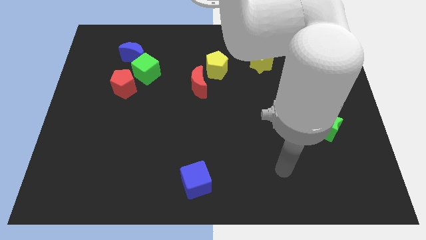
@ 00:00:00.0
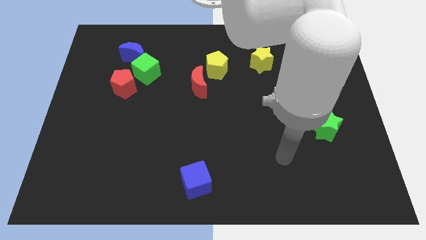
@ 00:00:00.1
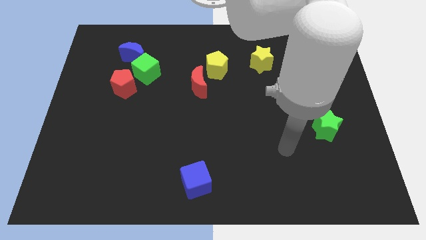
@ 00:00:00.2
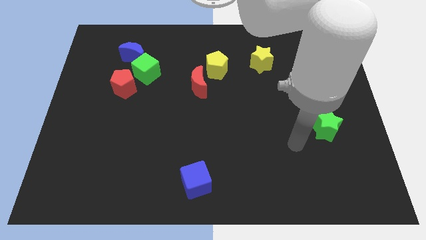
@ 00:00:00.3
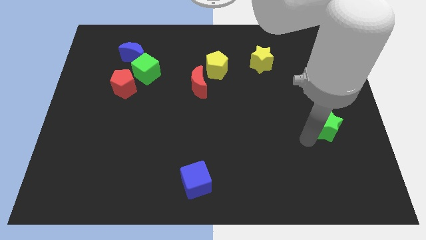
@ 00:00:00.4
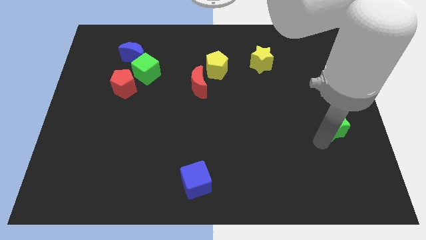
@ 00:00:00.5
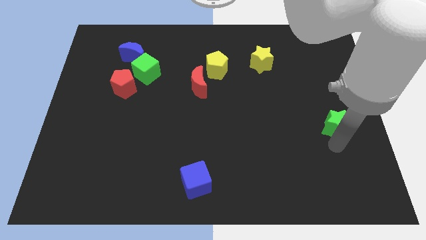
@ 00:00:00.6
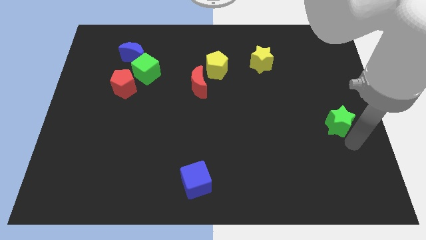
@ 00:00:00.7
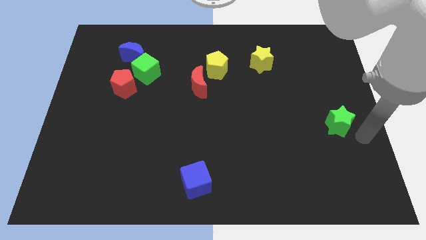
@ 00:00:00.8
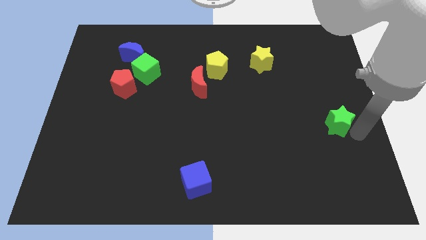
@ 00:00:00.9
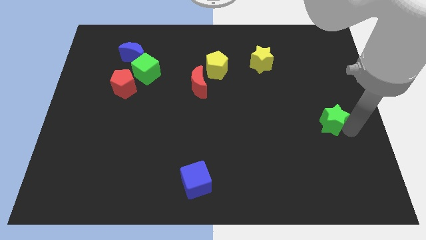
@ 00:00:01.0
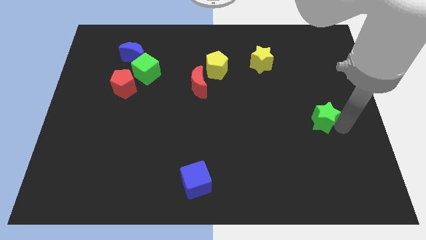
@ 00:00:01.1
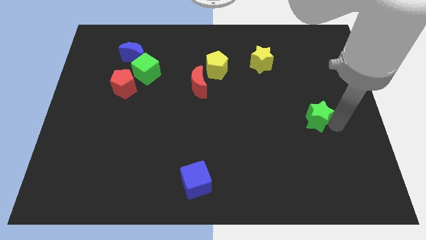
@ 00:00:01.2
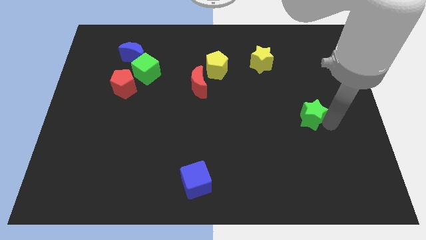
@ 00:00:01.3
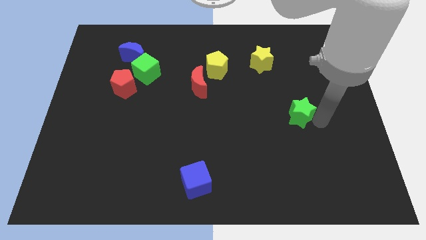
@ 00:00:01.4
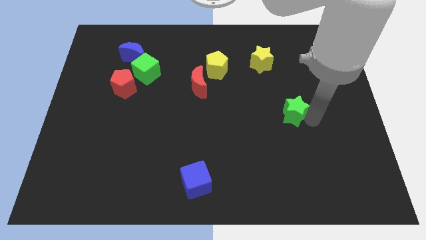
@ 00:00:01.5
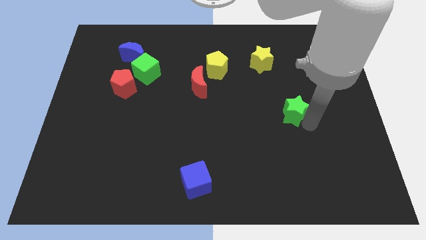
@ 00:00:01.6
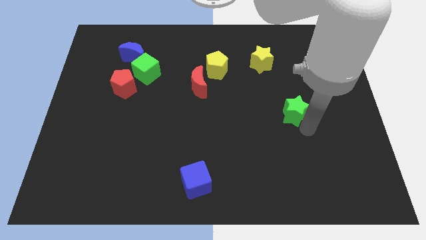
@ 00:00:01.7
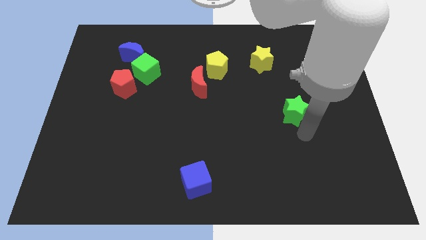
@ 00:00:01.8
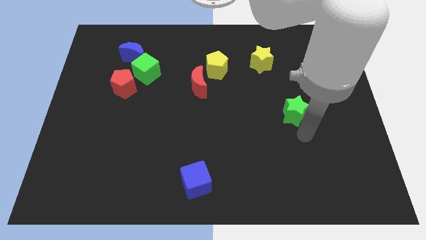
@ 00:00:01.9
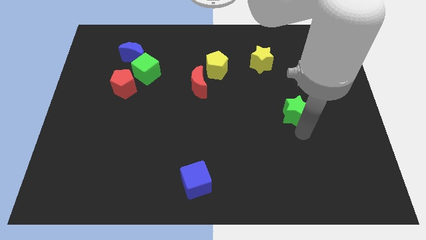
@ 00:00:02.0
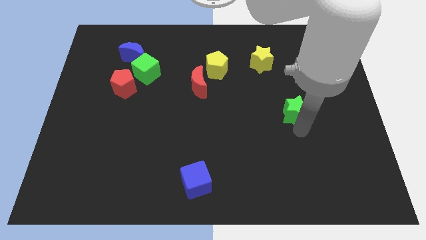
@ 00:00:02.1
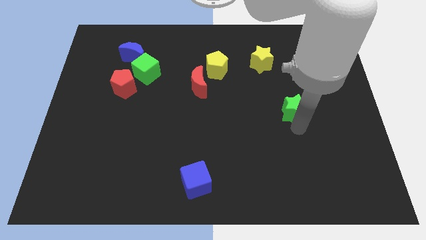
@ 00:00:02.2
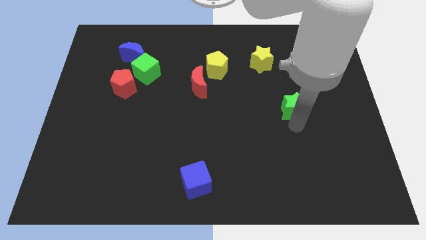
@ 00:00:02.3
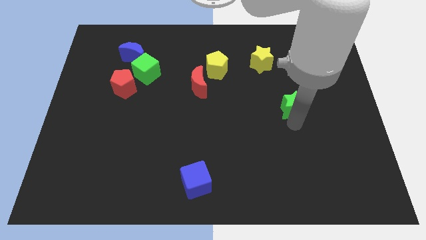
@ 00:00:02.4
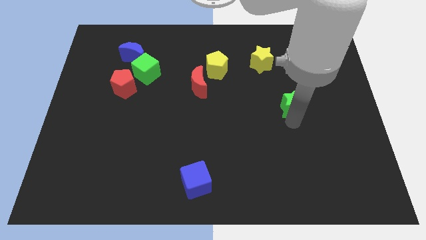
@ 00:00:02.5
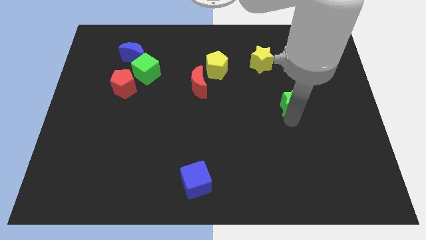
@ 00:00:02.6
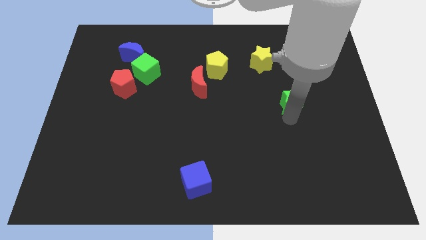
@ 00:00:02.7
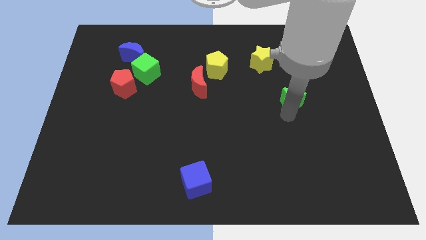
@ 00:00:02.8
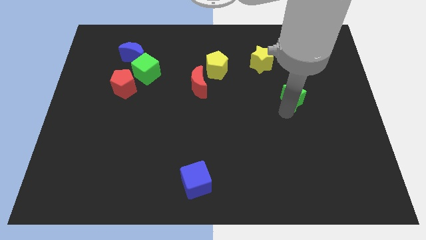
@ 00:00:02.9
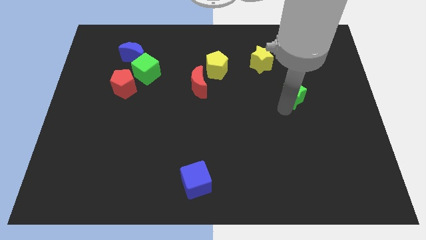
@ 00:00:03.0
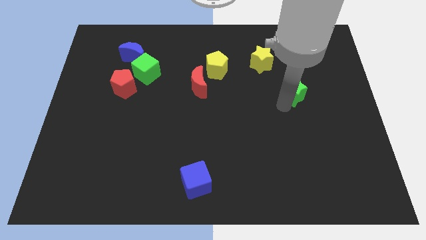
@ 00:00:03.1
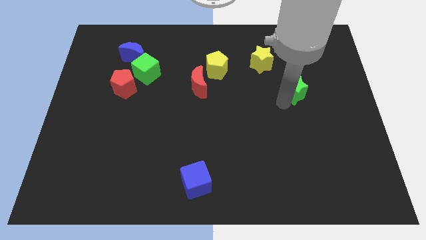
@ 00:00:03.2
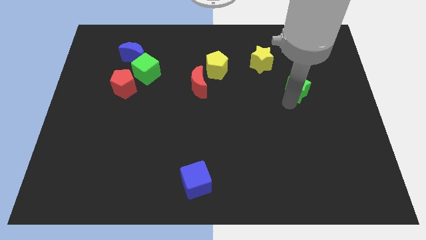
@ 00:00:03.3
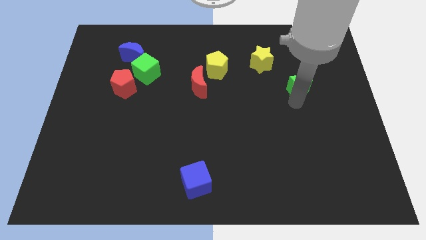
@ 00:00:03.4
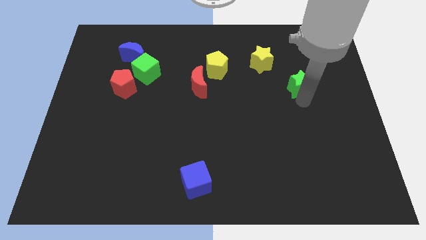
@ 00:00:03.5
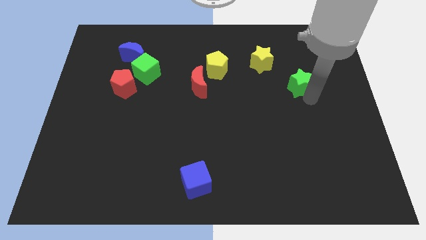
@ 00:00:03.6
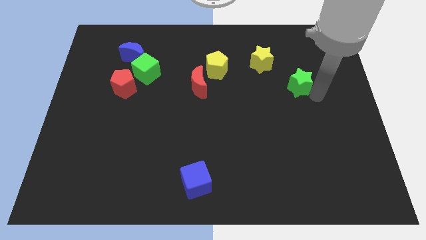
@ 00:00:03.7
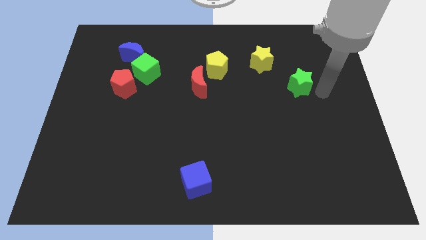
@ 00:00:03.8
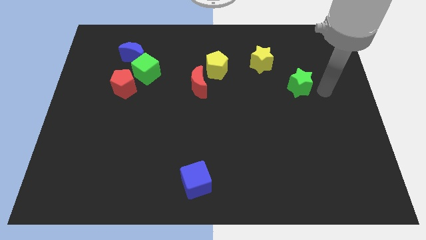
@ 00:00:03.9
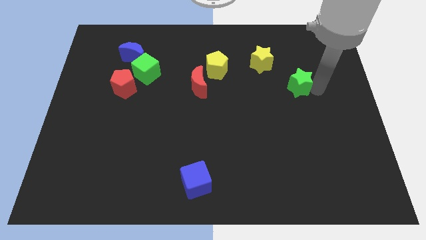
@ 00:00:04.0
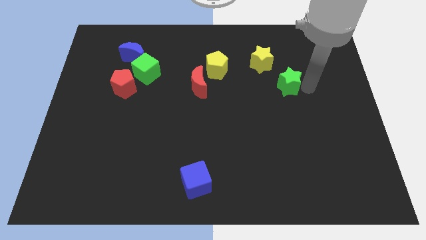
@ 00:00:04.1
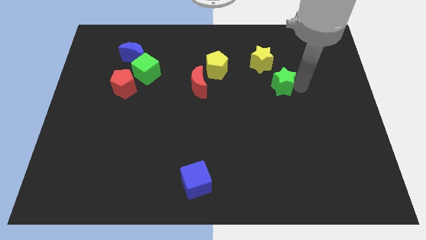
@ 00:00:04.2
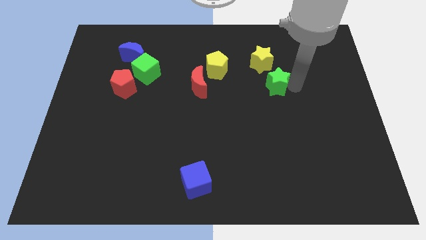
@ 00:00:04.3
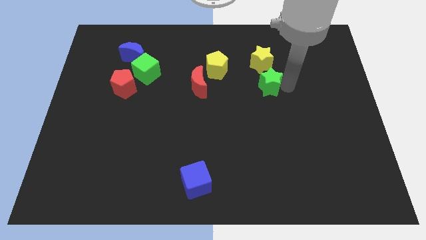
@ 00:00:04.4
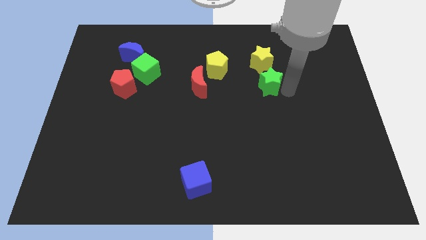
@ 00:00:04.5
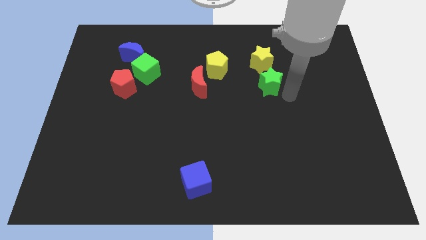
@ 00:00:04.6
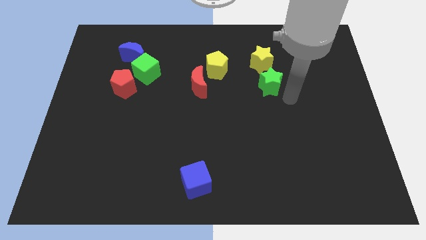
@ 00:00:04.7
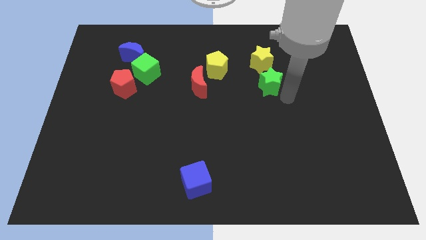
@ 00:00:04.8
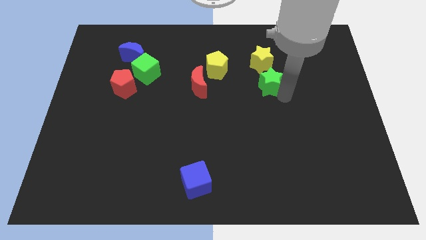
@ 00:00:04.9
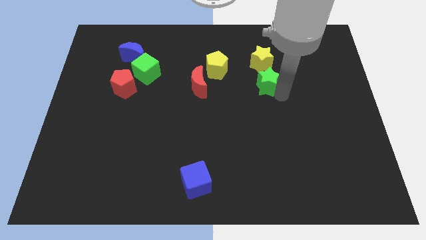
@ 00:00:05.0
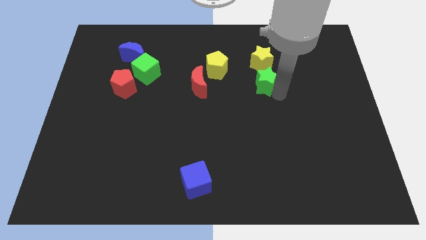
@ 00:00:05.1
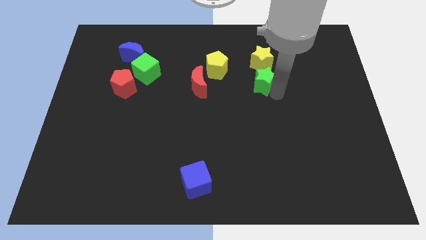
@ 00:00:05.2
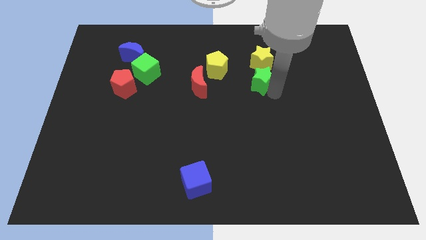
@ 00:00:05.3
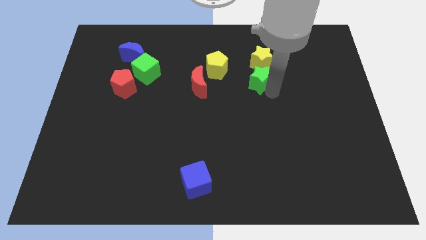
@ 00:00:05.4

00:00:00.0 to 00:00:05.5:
move the green star diagonally up and left

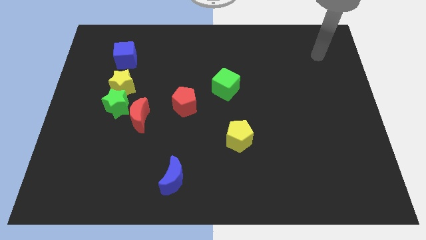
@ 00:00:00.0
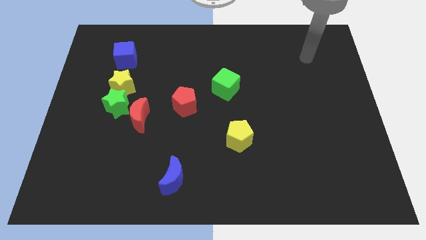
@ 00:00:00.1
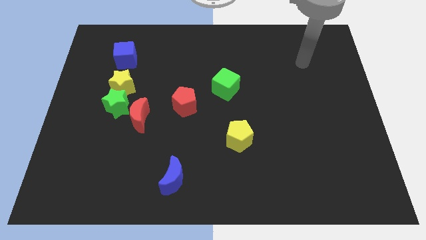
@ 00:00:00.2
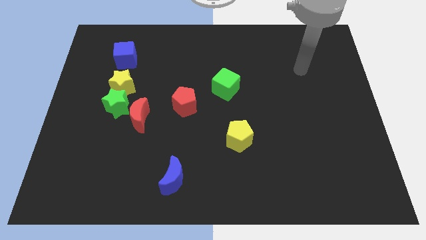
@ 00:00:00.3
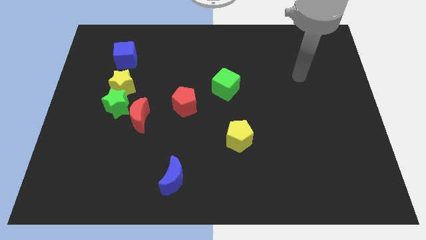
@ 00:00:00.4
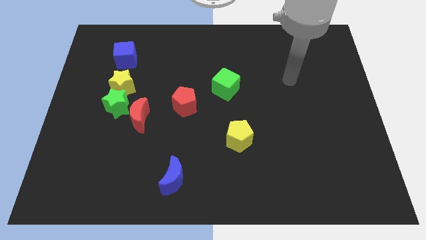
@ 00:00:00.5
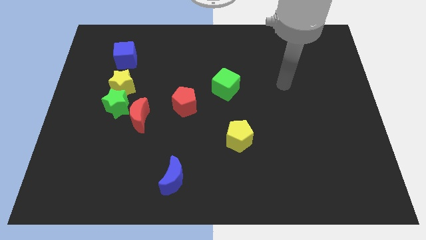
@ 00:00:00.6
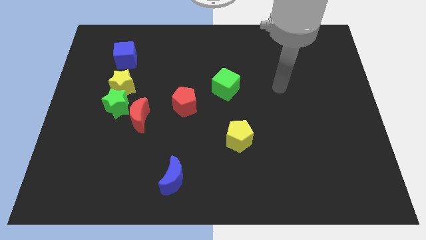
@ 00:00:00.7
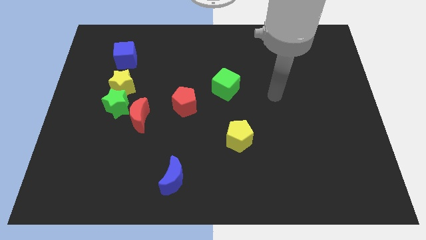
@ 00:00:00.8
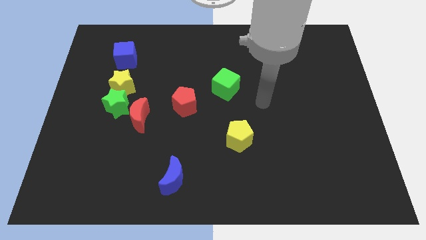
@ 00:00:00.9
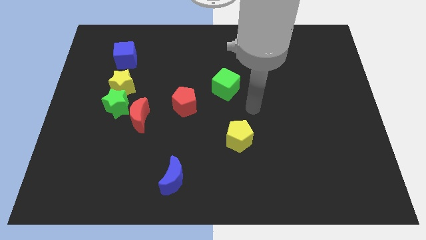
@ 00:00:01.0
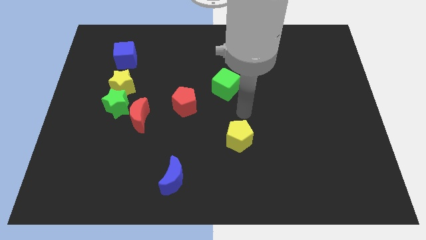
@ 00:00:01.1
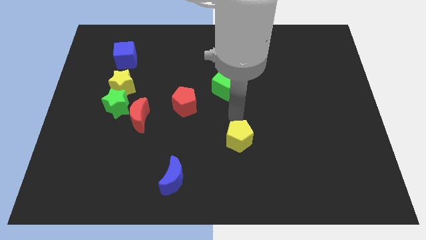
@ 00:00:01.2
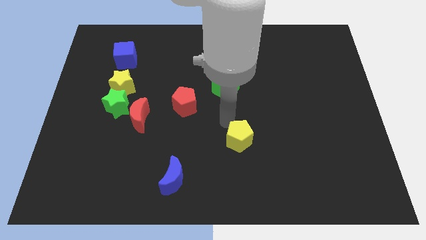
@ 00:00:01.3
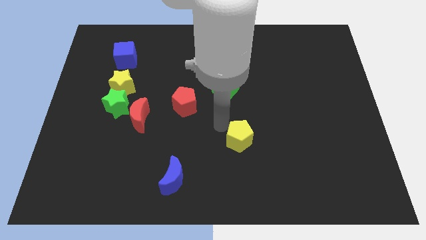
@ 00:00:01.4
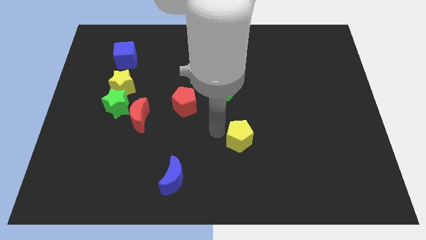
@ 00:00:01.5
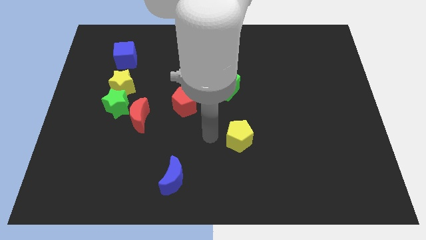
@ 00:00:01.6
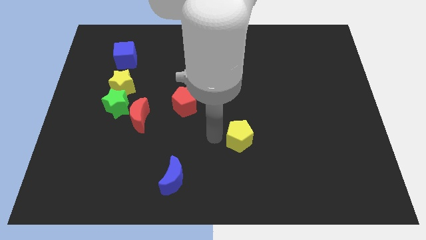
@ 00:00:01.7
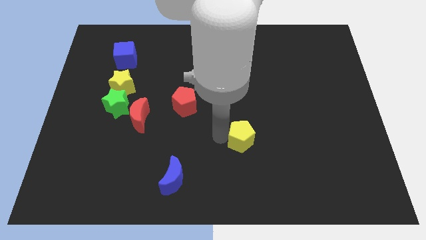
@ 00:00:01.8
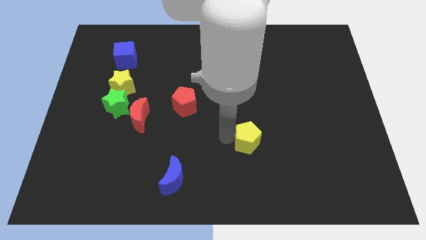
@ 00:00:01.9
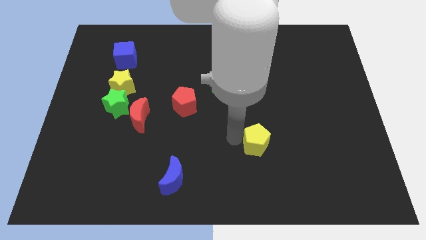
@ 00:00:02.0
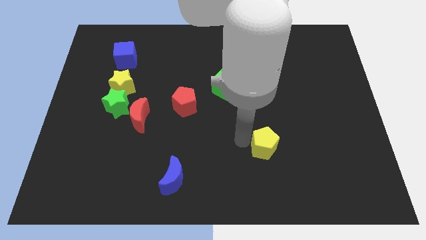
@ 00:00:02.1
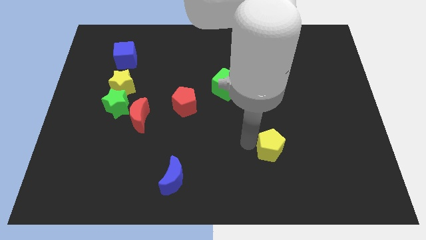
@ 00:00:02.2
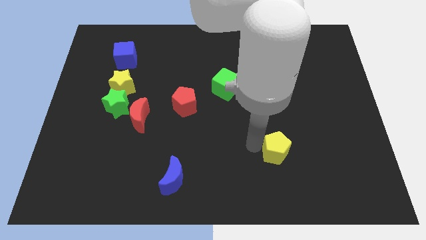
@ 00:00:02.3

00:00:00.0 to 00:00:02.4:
slightly slide the yellow pentagon to the right
